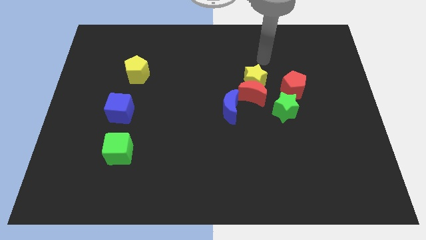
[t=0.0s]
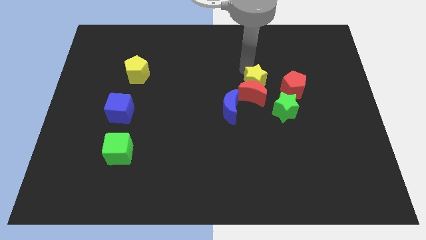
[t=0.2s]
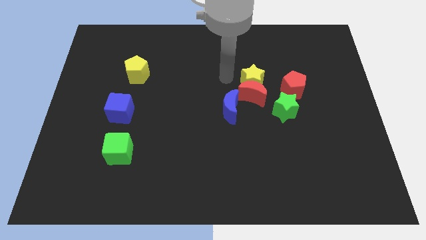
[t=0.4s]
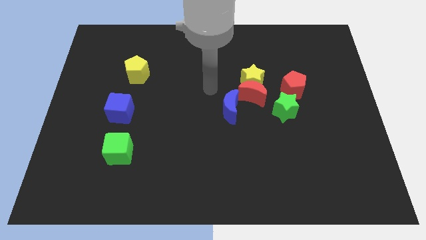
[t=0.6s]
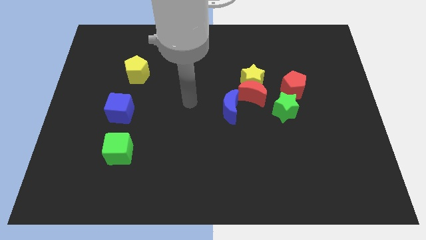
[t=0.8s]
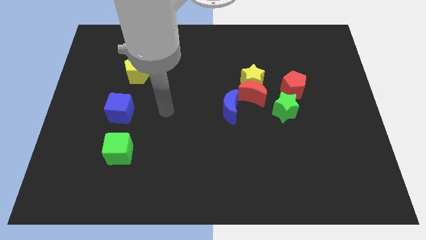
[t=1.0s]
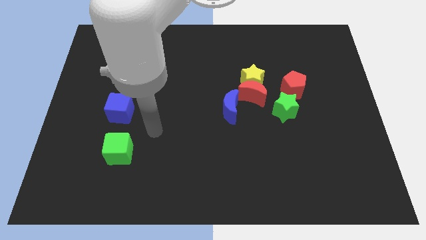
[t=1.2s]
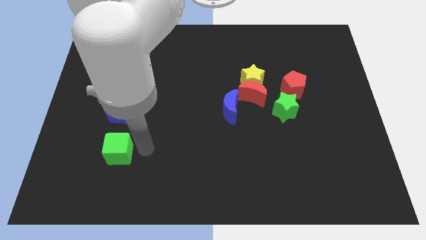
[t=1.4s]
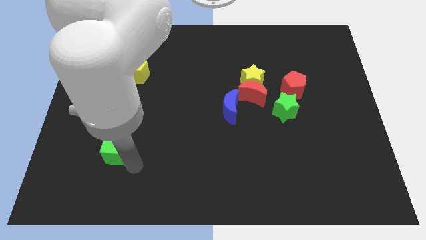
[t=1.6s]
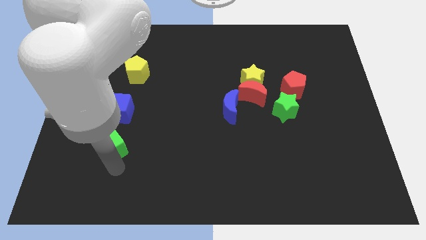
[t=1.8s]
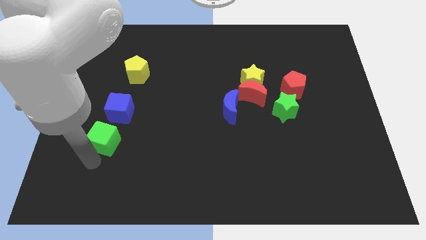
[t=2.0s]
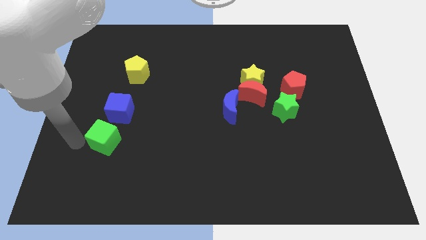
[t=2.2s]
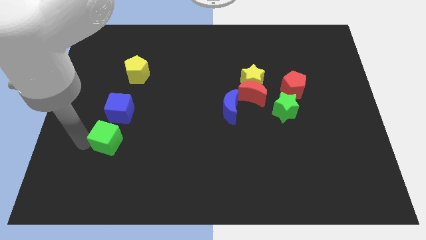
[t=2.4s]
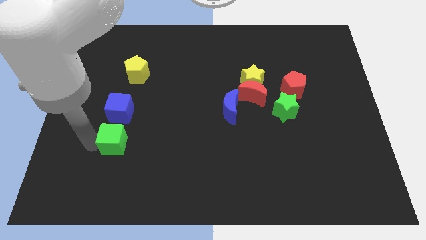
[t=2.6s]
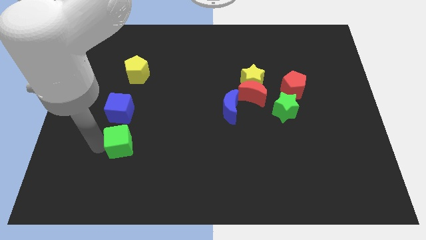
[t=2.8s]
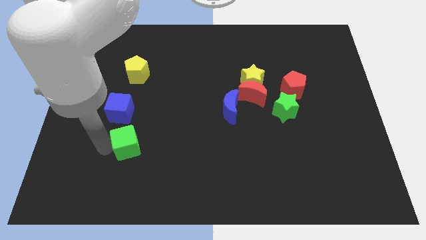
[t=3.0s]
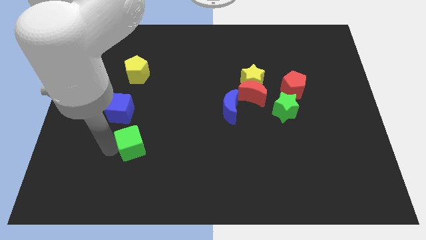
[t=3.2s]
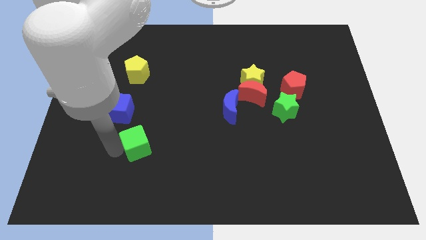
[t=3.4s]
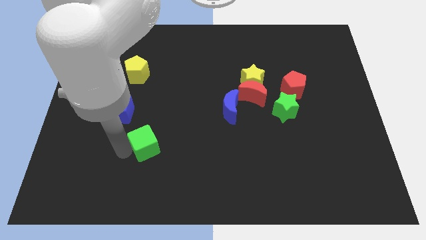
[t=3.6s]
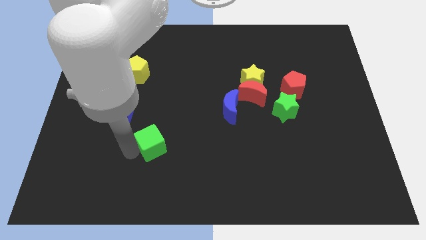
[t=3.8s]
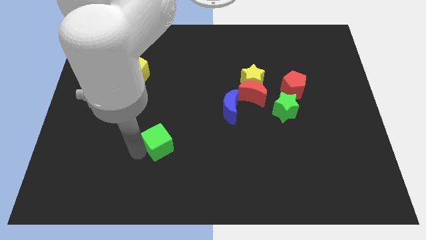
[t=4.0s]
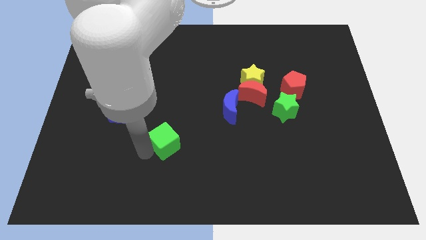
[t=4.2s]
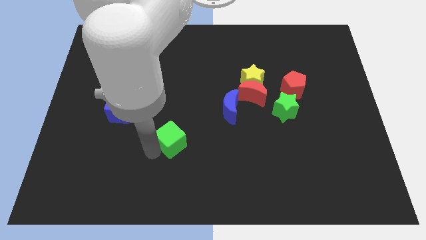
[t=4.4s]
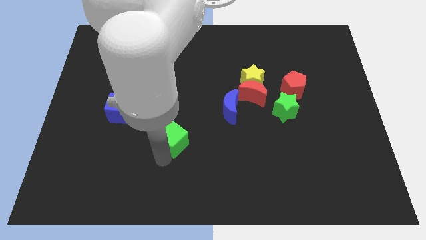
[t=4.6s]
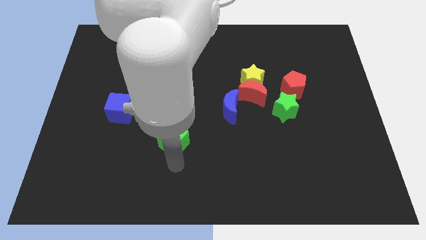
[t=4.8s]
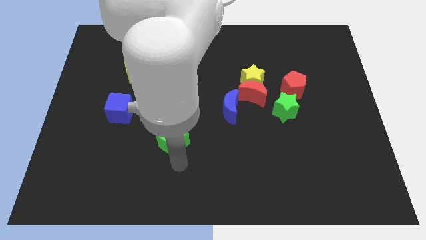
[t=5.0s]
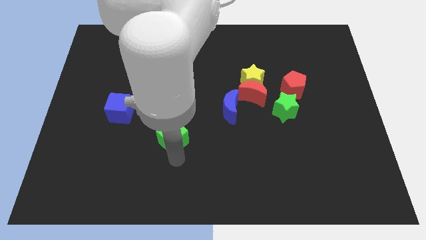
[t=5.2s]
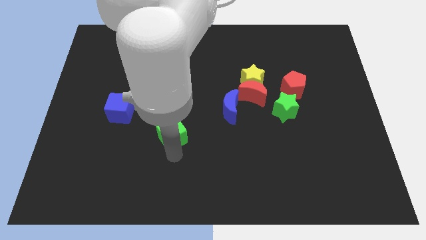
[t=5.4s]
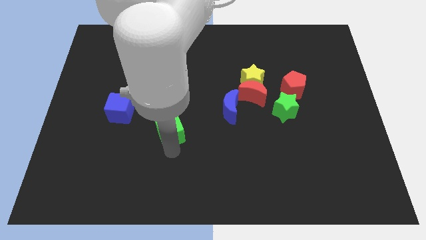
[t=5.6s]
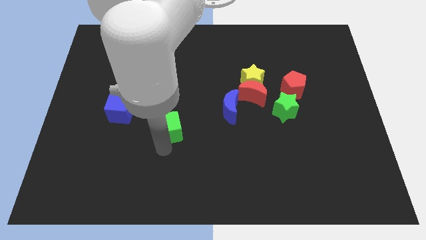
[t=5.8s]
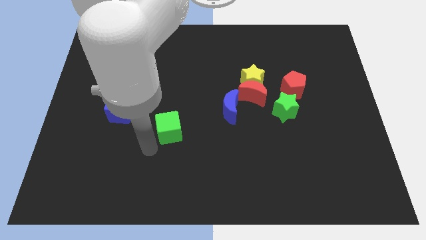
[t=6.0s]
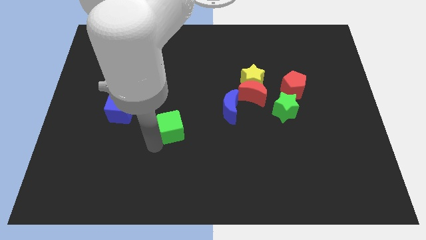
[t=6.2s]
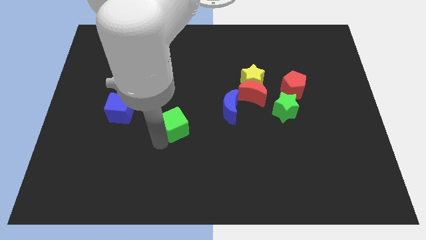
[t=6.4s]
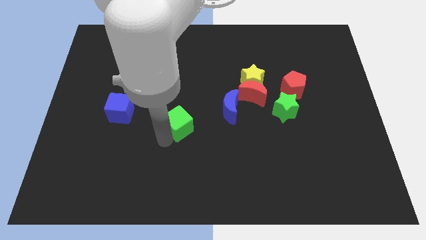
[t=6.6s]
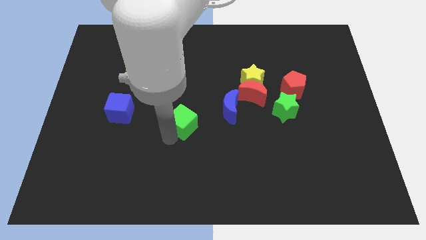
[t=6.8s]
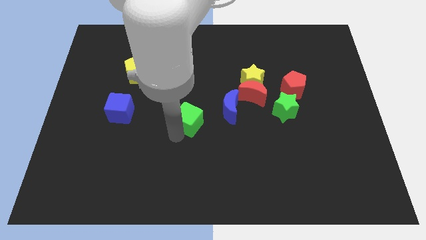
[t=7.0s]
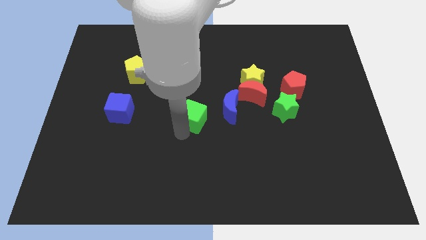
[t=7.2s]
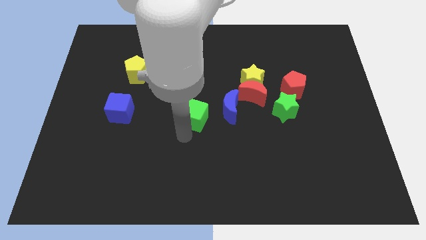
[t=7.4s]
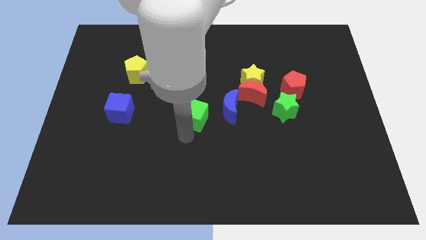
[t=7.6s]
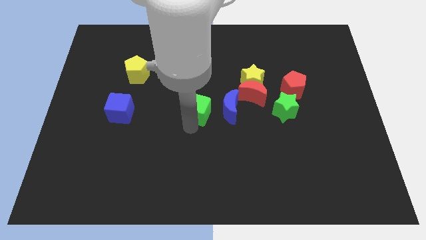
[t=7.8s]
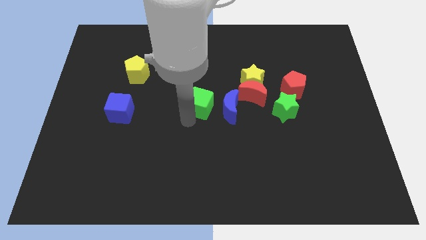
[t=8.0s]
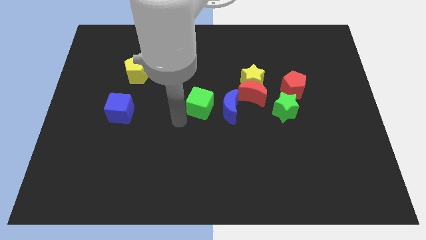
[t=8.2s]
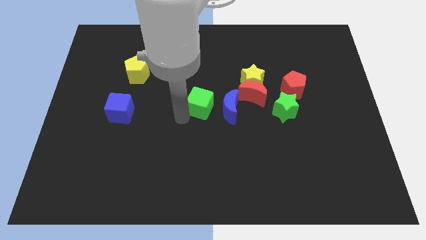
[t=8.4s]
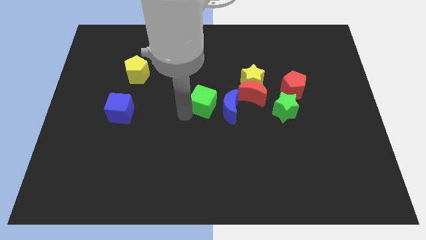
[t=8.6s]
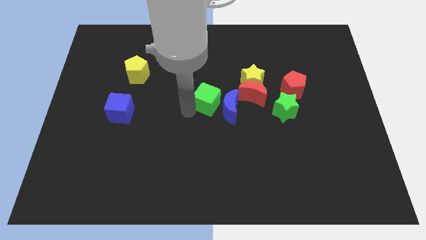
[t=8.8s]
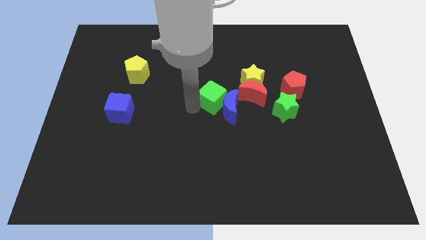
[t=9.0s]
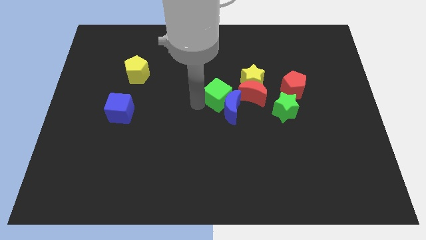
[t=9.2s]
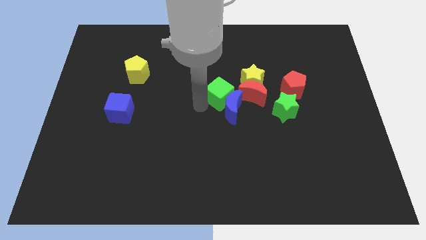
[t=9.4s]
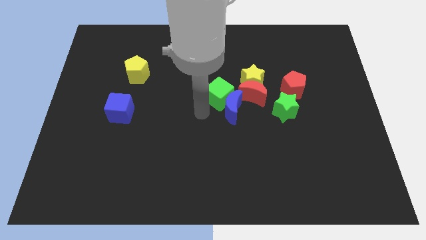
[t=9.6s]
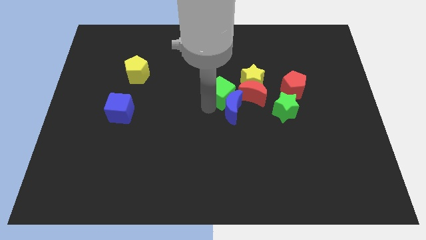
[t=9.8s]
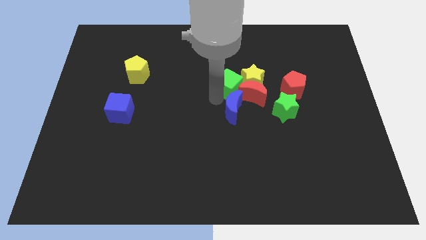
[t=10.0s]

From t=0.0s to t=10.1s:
slide the green cube close to the yellow star

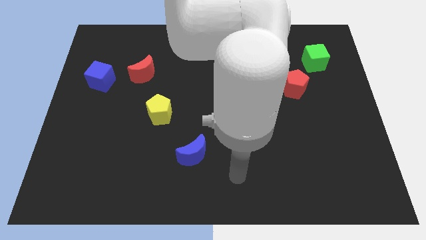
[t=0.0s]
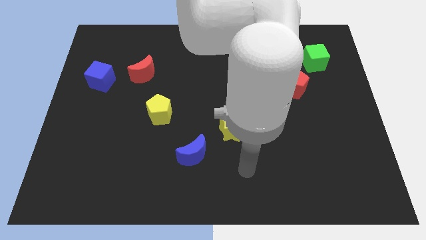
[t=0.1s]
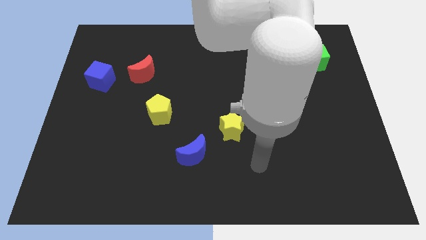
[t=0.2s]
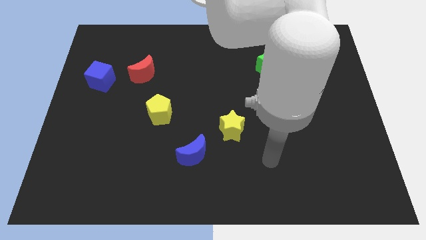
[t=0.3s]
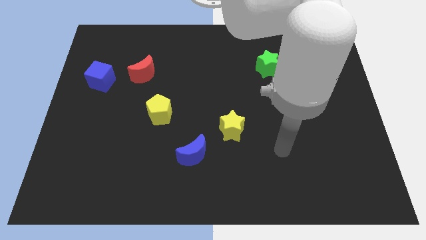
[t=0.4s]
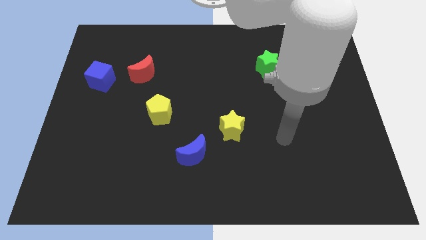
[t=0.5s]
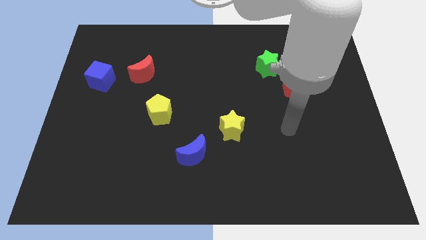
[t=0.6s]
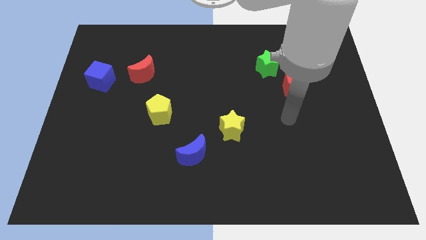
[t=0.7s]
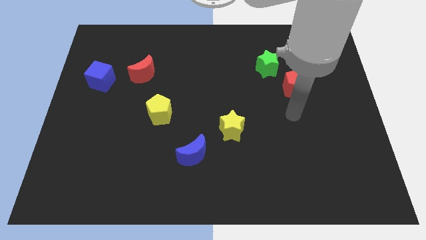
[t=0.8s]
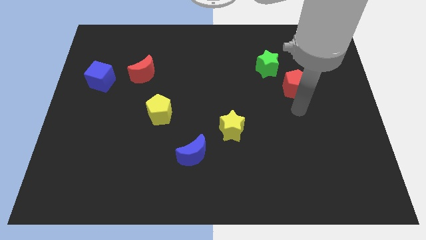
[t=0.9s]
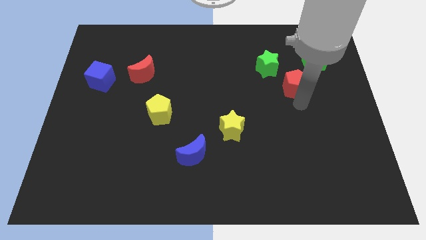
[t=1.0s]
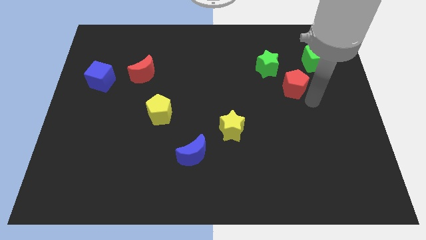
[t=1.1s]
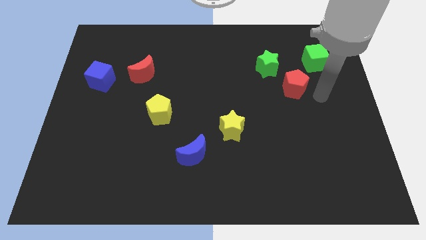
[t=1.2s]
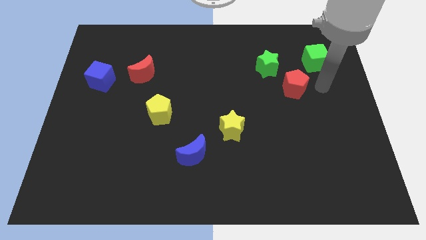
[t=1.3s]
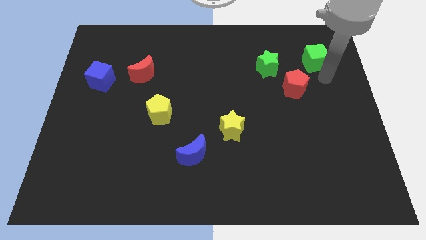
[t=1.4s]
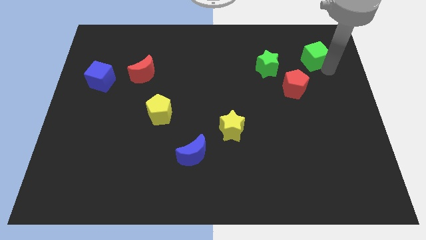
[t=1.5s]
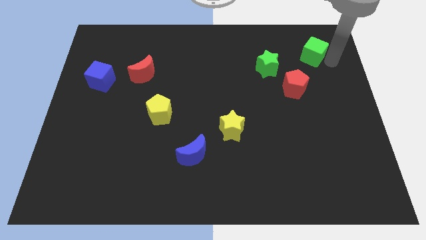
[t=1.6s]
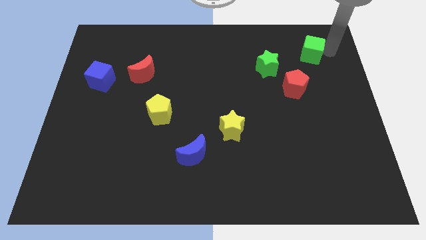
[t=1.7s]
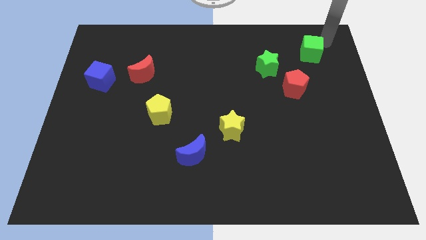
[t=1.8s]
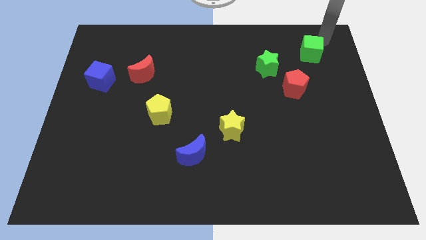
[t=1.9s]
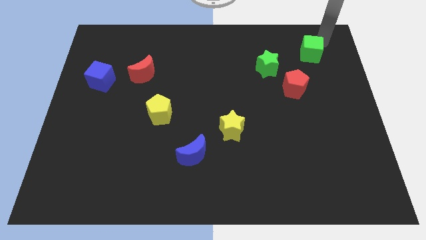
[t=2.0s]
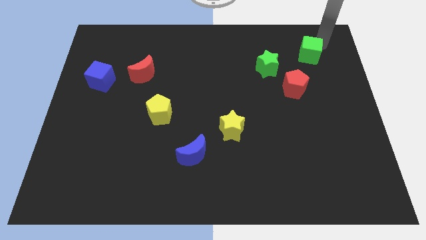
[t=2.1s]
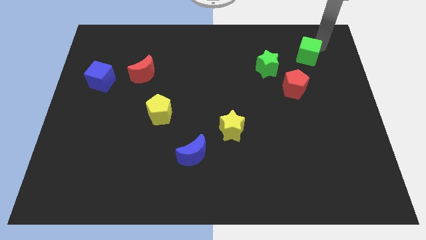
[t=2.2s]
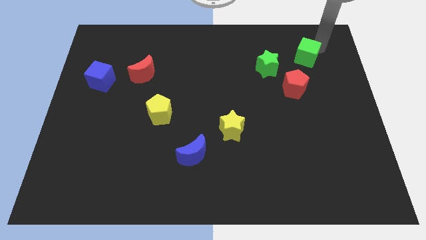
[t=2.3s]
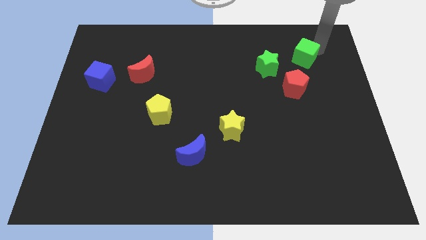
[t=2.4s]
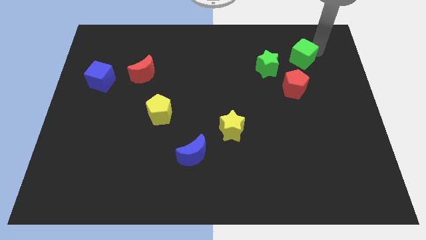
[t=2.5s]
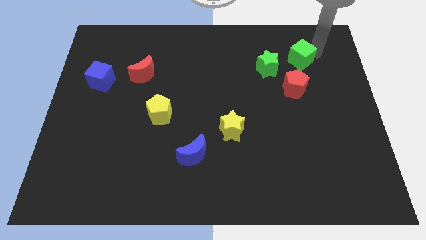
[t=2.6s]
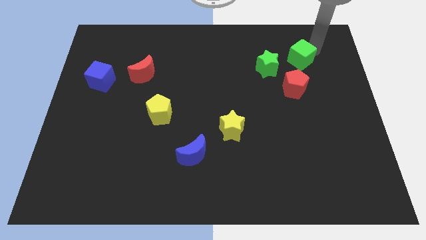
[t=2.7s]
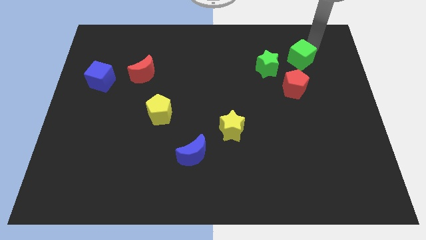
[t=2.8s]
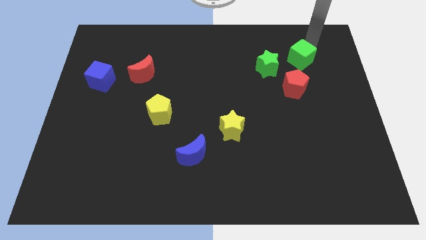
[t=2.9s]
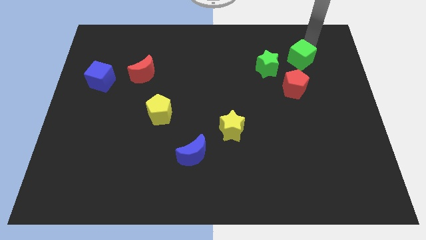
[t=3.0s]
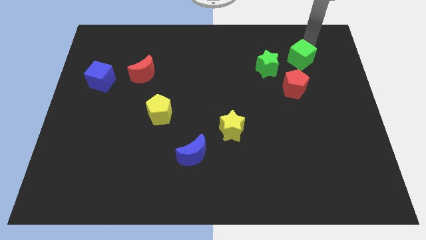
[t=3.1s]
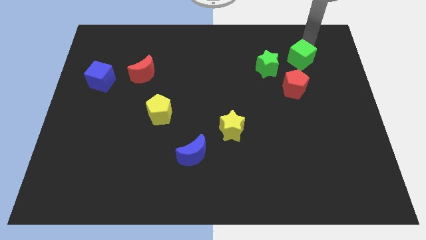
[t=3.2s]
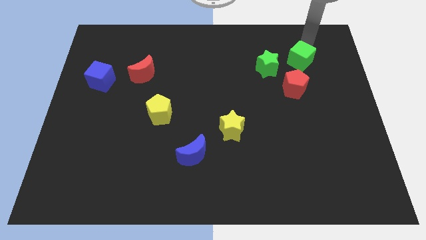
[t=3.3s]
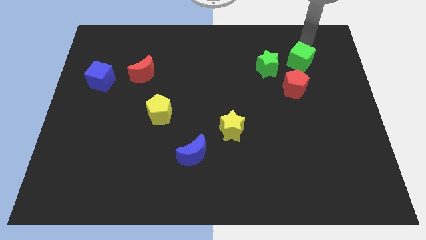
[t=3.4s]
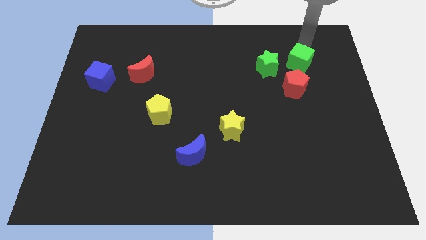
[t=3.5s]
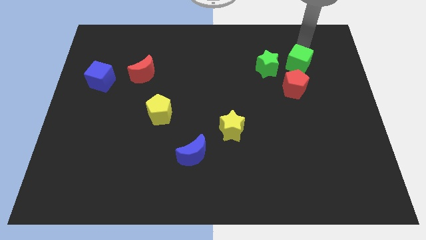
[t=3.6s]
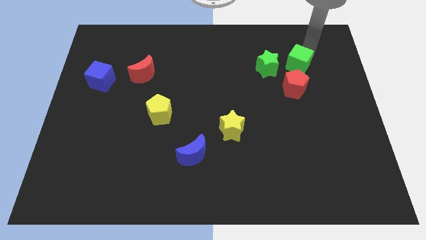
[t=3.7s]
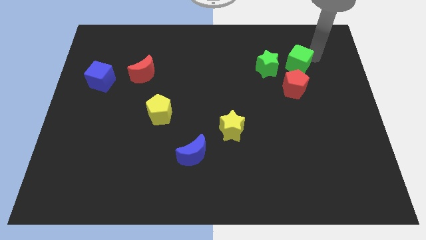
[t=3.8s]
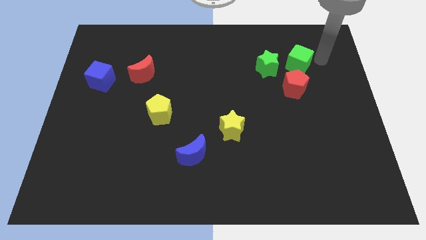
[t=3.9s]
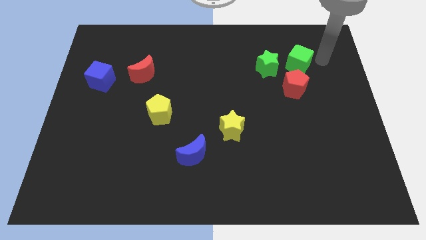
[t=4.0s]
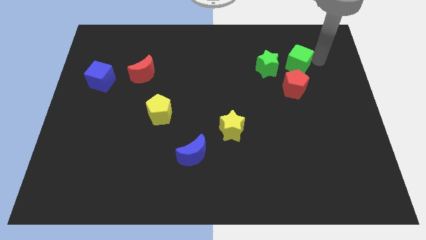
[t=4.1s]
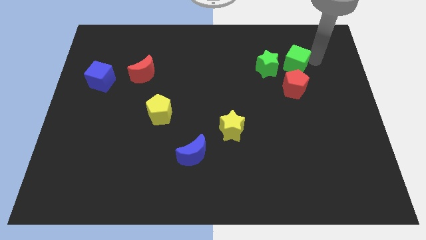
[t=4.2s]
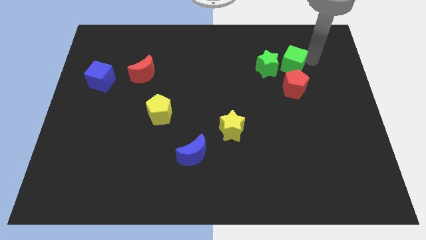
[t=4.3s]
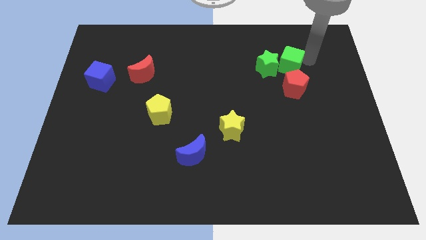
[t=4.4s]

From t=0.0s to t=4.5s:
move the green cube next to the green star
